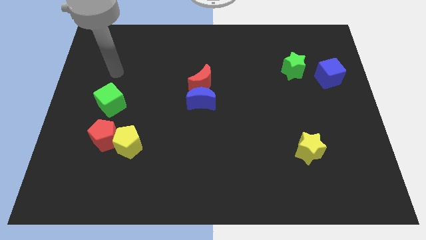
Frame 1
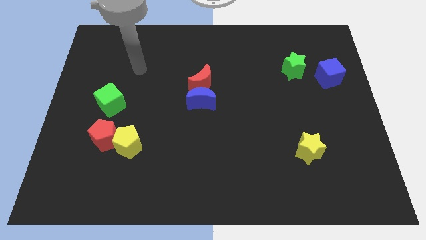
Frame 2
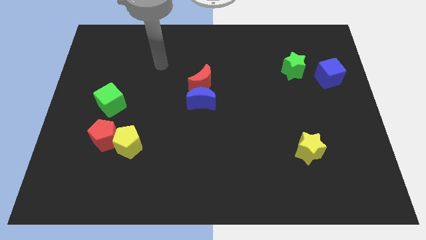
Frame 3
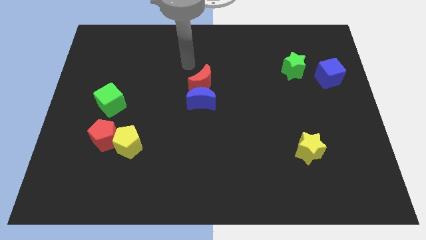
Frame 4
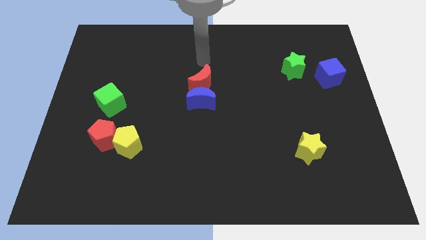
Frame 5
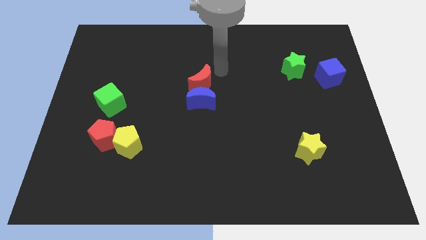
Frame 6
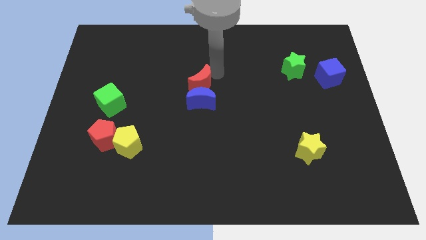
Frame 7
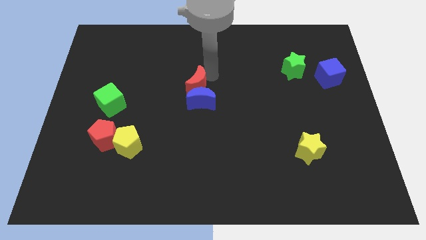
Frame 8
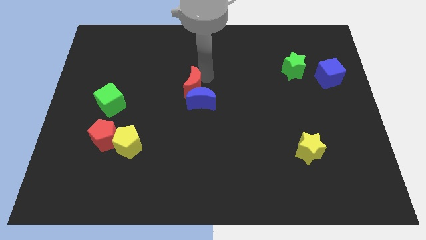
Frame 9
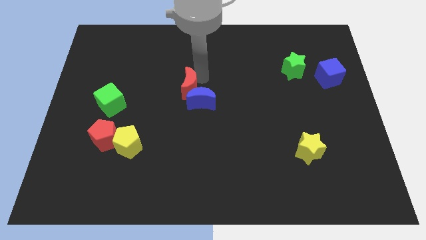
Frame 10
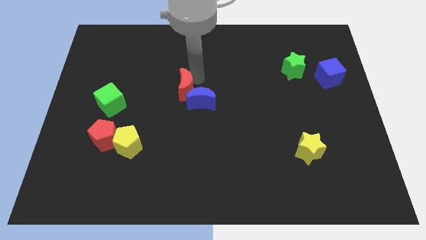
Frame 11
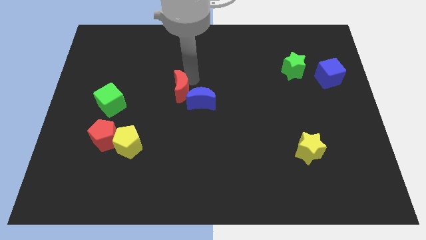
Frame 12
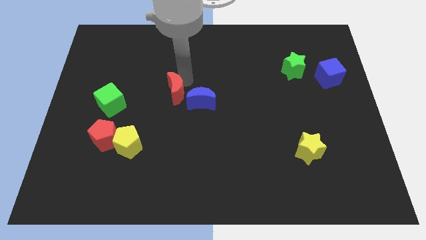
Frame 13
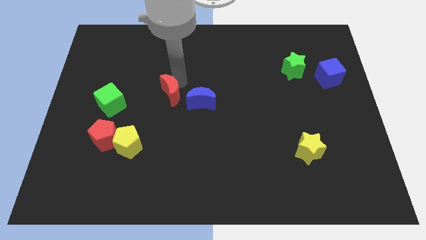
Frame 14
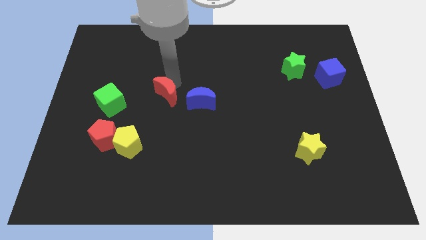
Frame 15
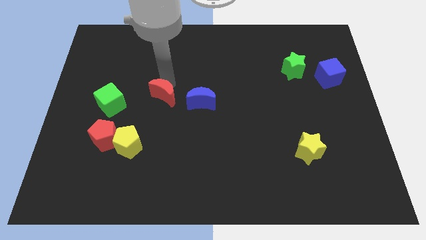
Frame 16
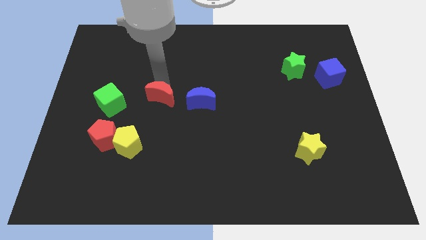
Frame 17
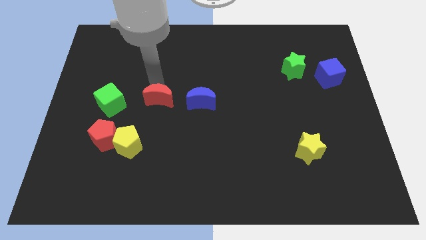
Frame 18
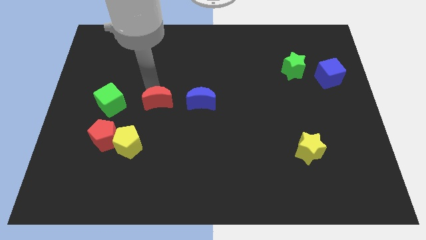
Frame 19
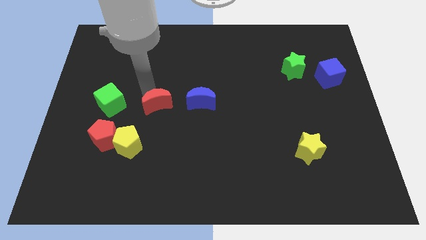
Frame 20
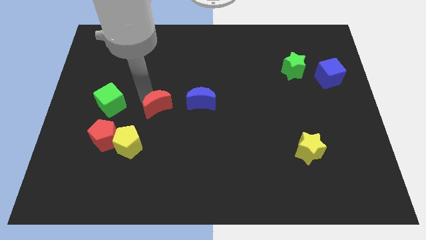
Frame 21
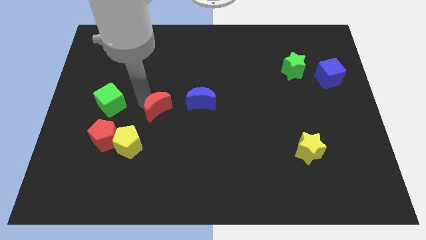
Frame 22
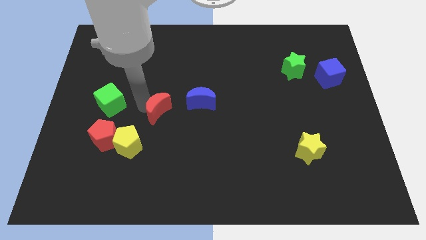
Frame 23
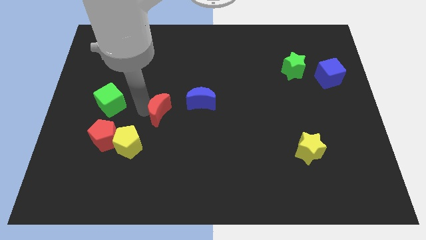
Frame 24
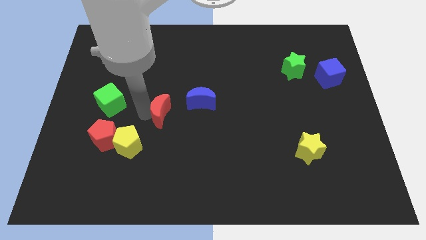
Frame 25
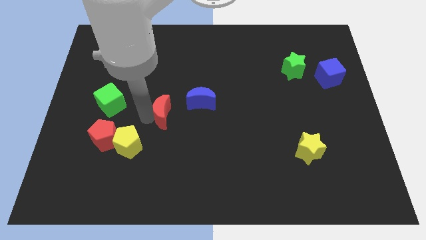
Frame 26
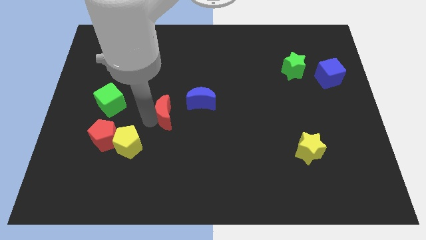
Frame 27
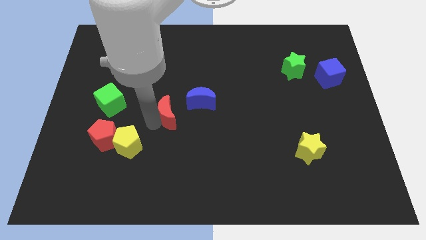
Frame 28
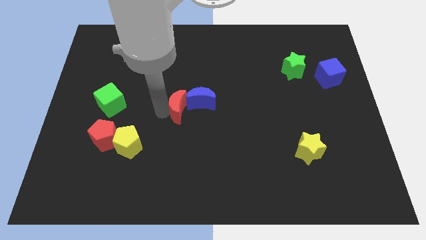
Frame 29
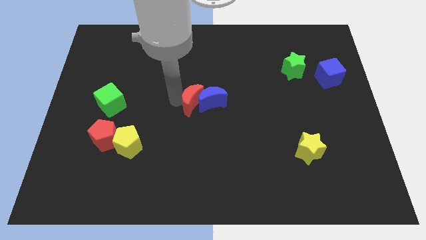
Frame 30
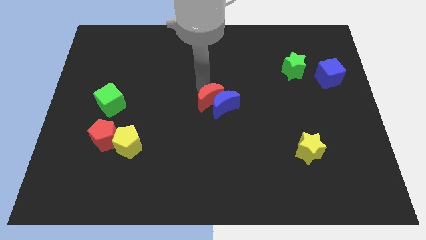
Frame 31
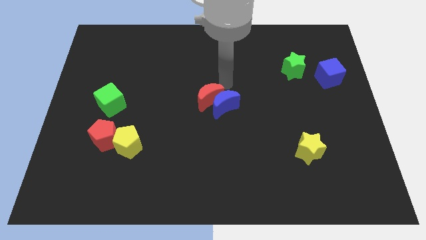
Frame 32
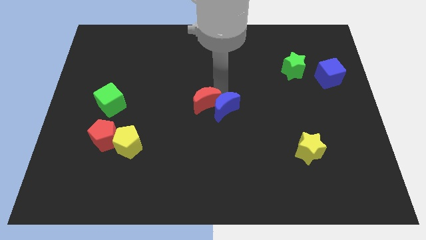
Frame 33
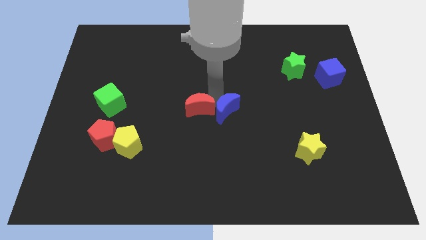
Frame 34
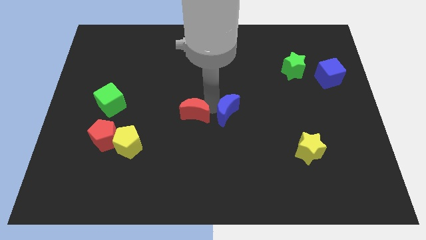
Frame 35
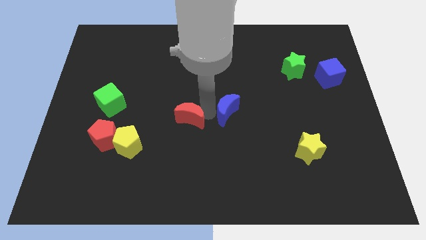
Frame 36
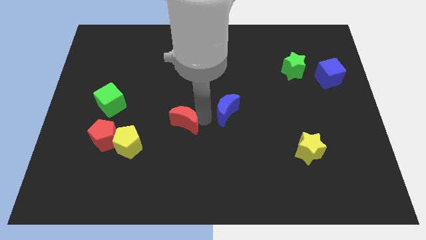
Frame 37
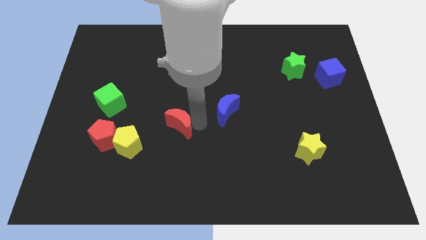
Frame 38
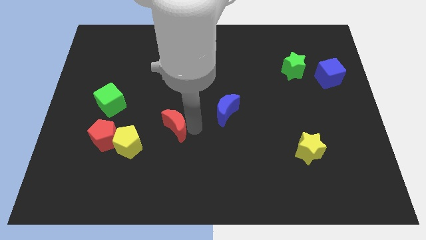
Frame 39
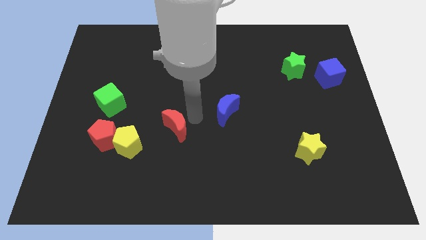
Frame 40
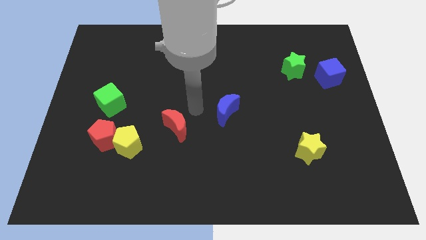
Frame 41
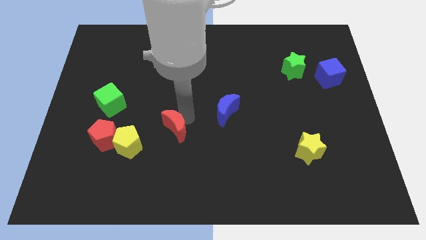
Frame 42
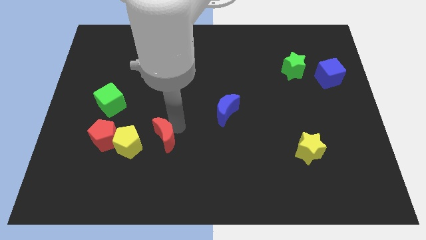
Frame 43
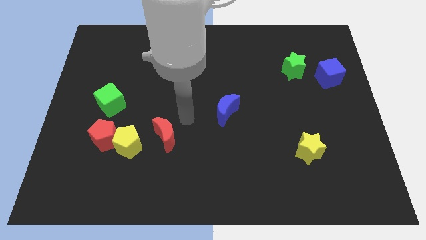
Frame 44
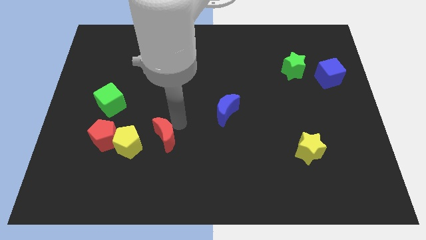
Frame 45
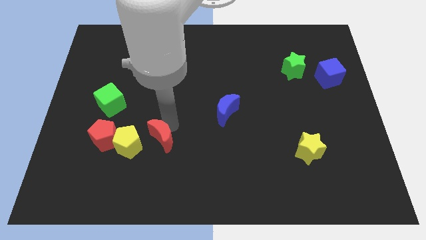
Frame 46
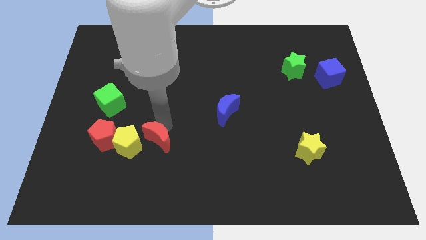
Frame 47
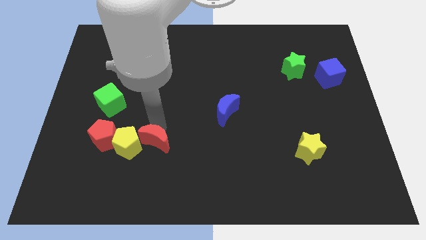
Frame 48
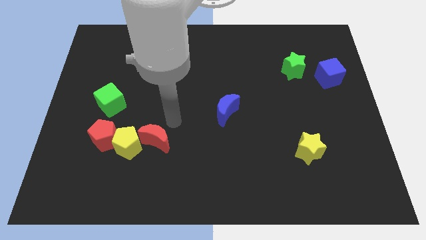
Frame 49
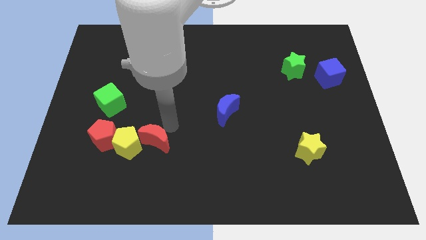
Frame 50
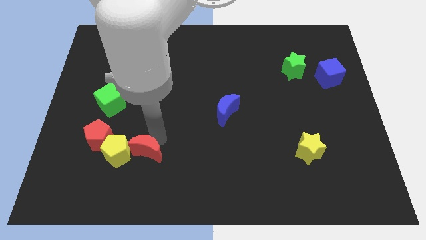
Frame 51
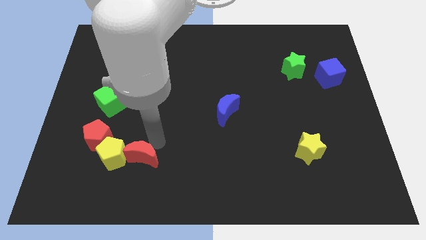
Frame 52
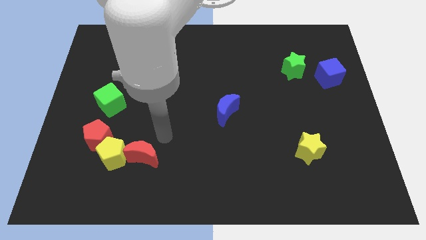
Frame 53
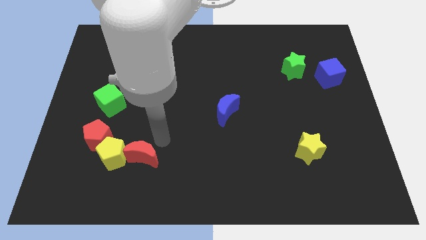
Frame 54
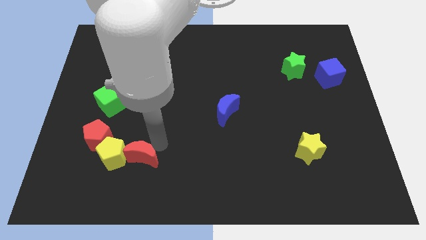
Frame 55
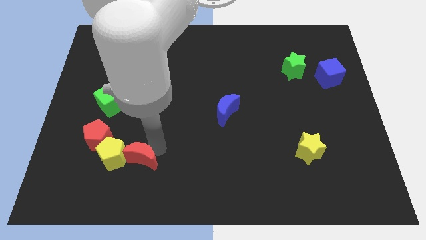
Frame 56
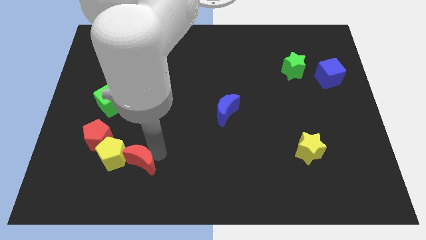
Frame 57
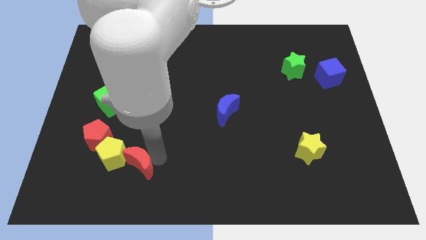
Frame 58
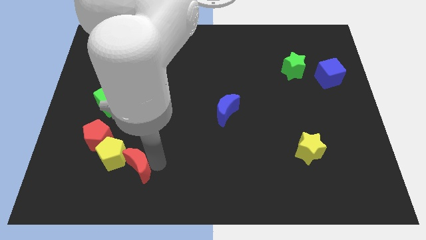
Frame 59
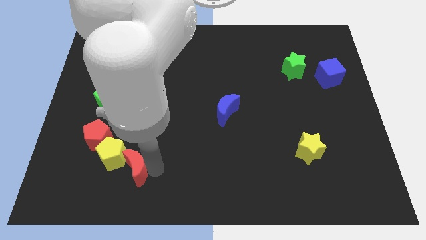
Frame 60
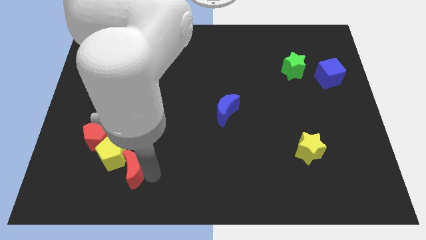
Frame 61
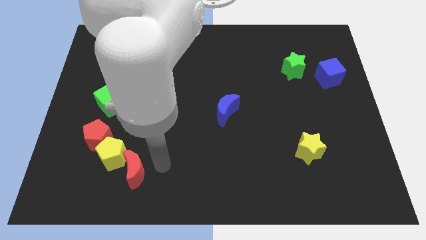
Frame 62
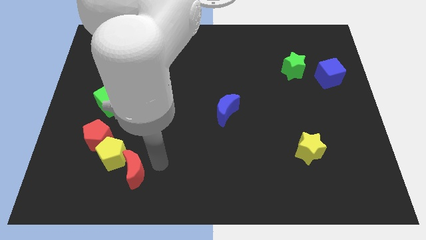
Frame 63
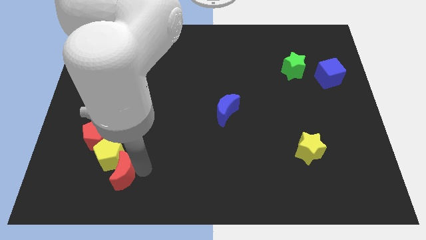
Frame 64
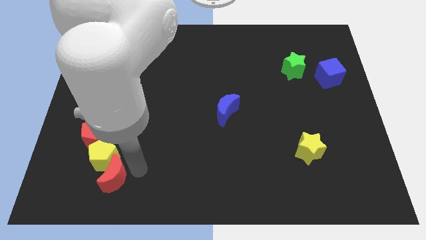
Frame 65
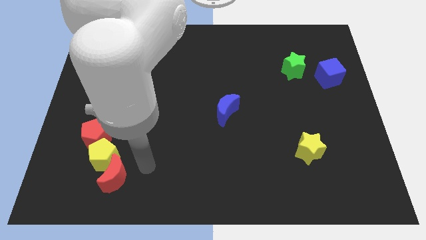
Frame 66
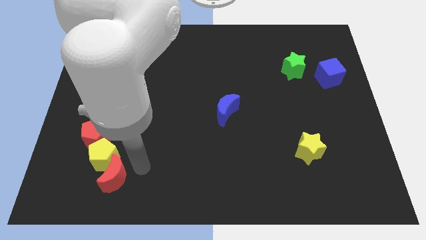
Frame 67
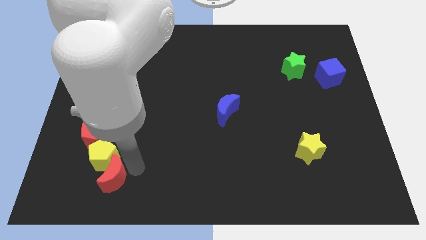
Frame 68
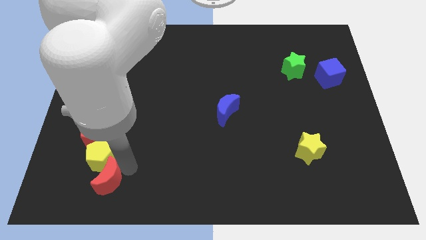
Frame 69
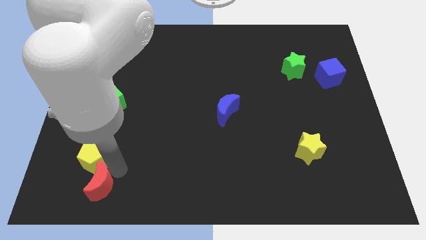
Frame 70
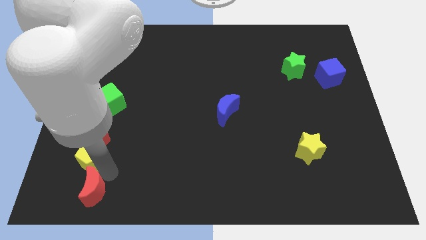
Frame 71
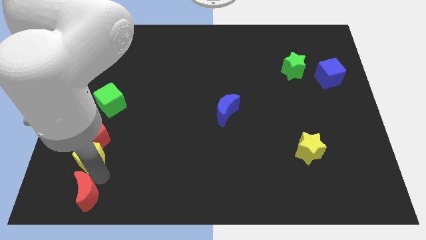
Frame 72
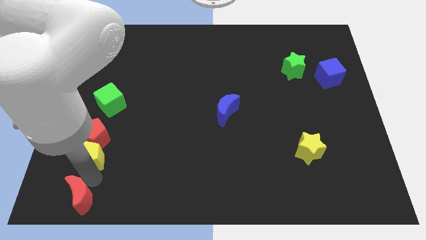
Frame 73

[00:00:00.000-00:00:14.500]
move the red moon to the bottom left of the board
